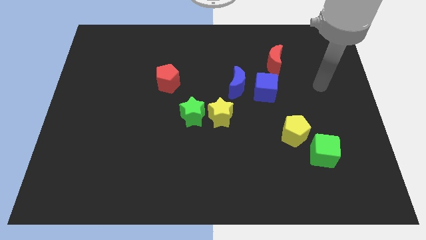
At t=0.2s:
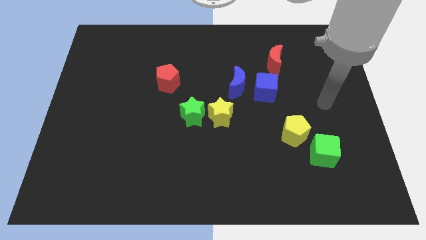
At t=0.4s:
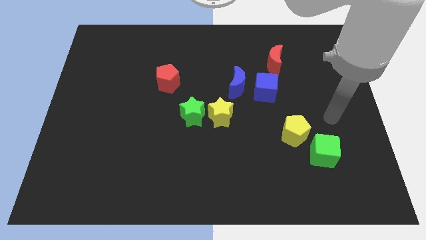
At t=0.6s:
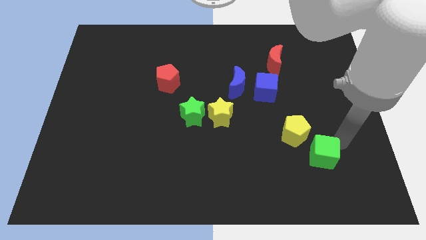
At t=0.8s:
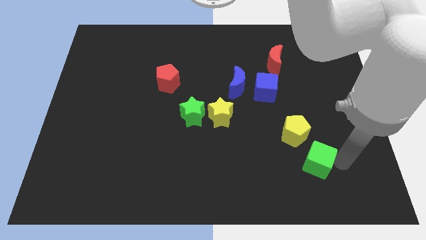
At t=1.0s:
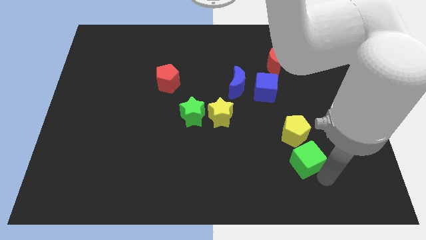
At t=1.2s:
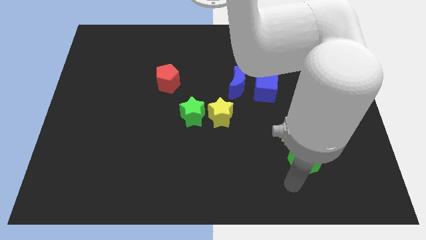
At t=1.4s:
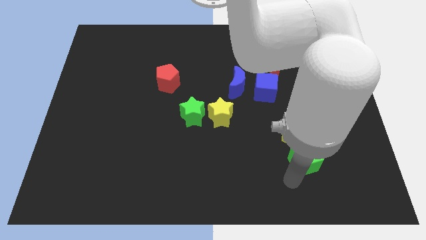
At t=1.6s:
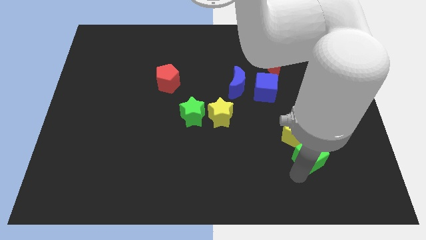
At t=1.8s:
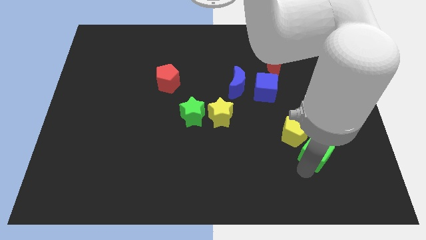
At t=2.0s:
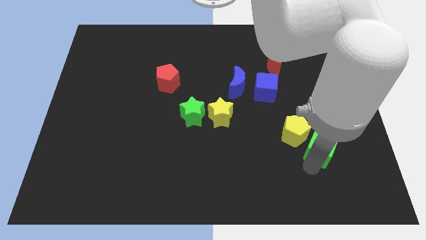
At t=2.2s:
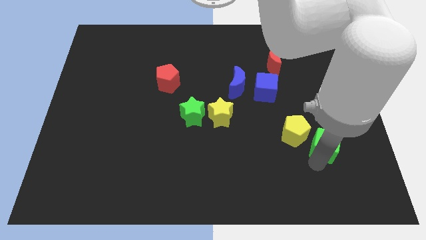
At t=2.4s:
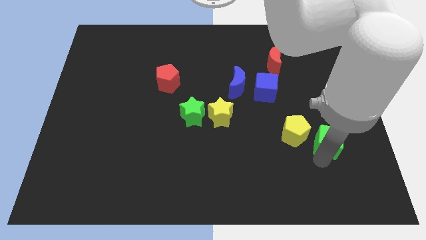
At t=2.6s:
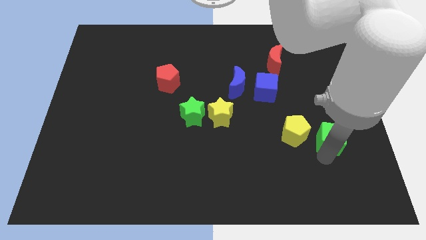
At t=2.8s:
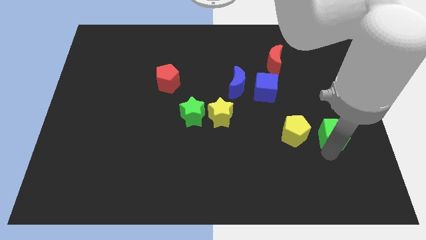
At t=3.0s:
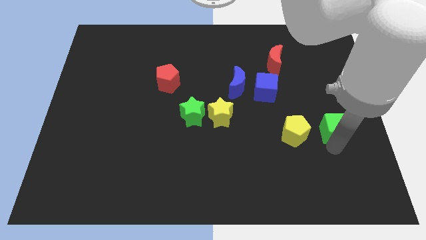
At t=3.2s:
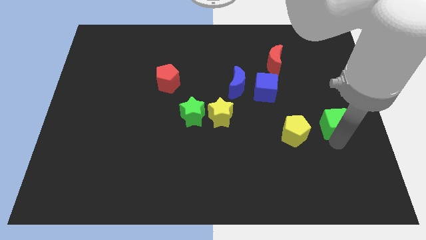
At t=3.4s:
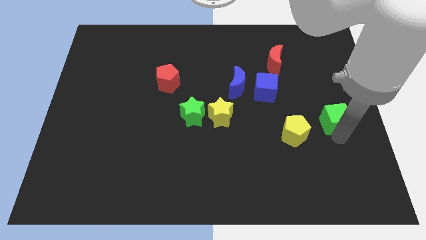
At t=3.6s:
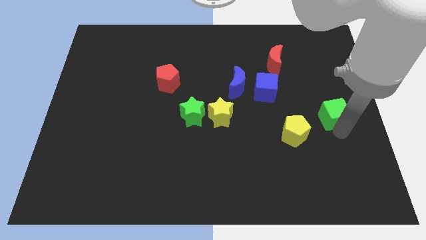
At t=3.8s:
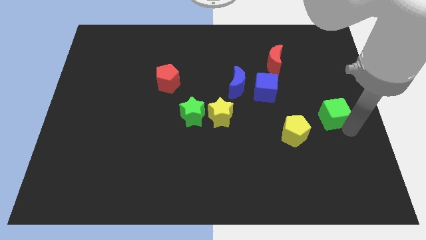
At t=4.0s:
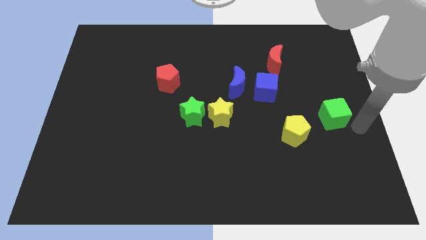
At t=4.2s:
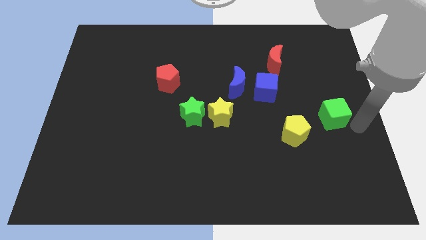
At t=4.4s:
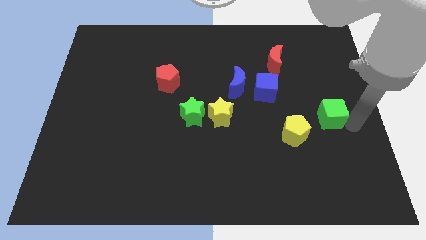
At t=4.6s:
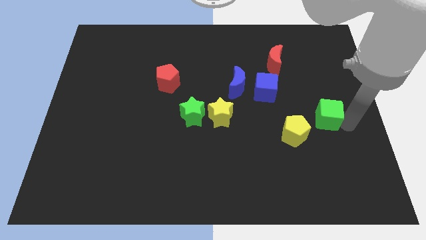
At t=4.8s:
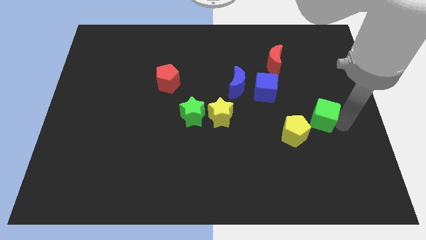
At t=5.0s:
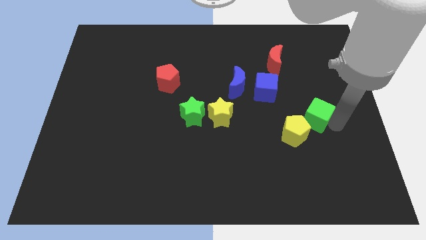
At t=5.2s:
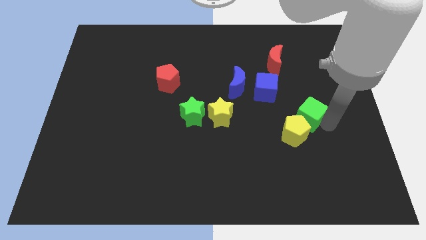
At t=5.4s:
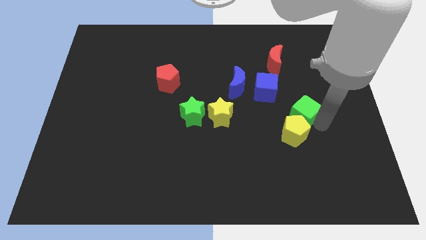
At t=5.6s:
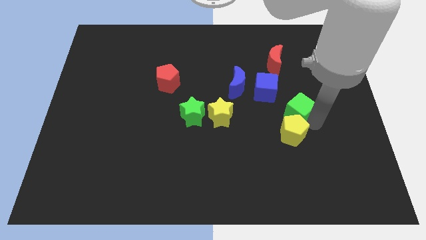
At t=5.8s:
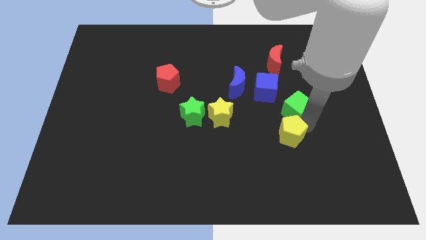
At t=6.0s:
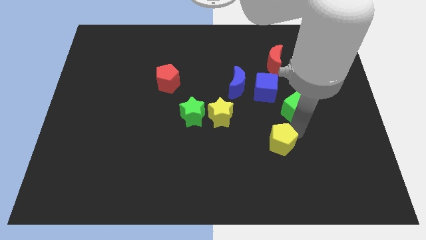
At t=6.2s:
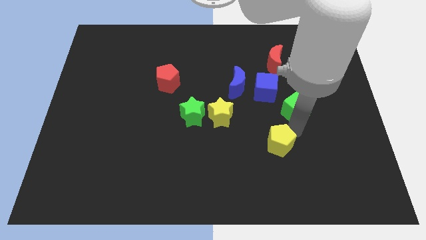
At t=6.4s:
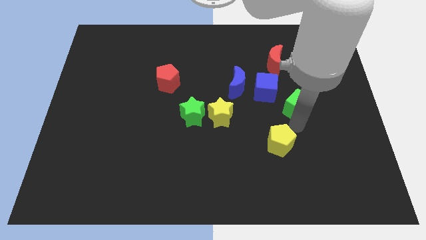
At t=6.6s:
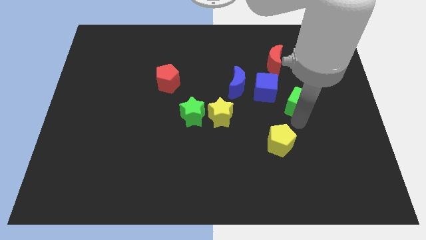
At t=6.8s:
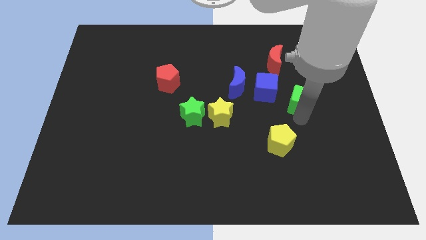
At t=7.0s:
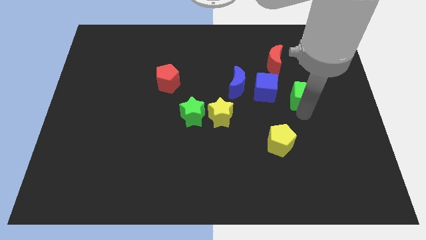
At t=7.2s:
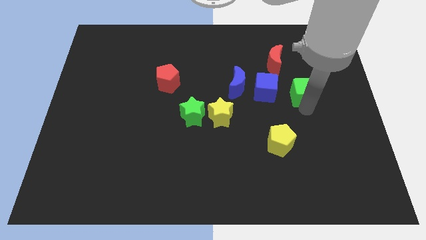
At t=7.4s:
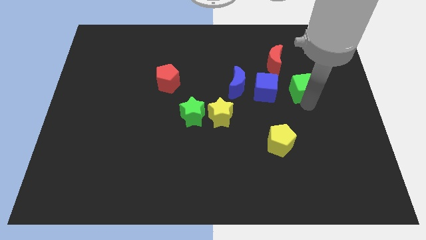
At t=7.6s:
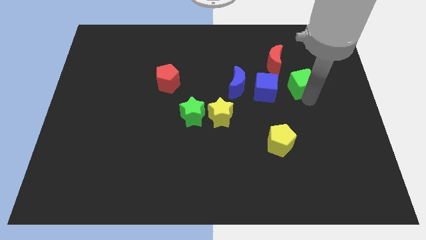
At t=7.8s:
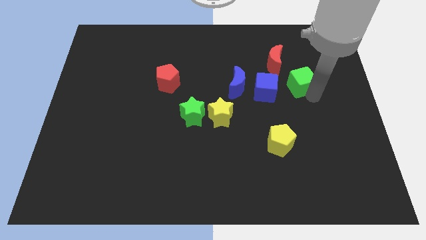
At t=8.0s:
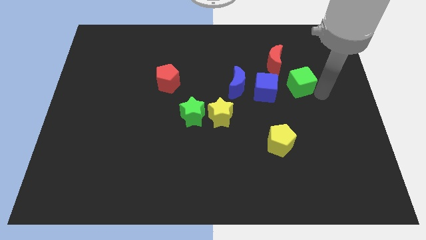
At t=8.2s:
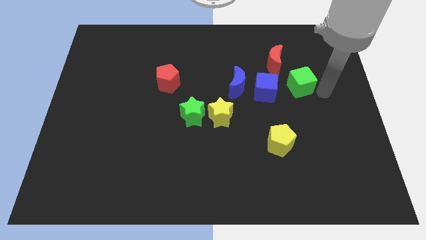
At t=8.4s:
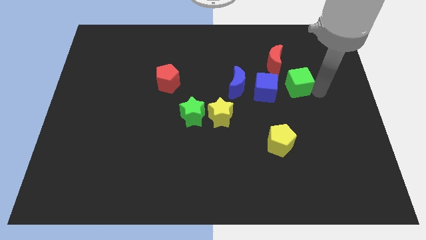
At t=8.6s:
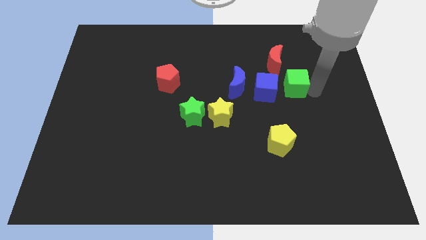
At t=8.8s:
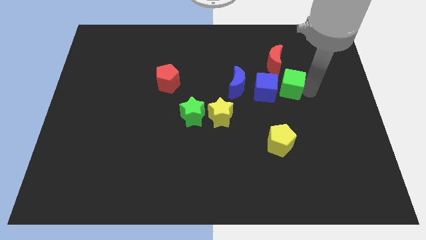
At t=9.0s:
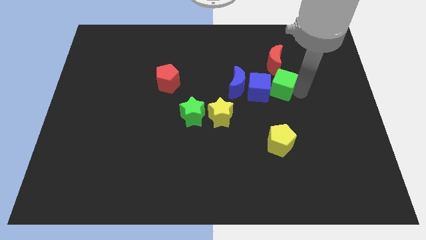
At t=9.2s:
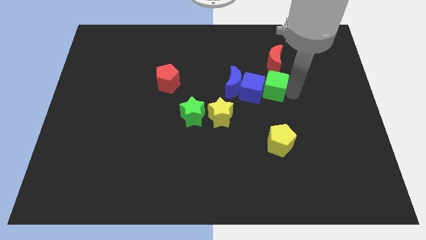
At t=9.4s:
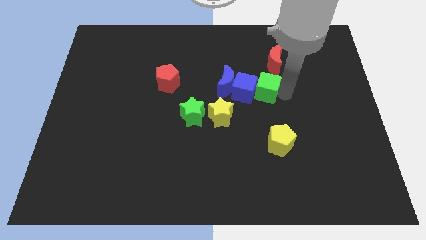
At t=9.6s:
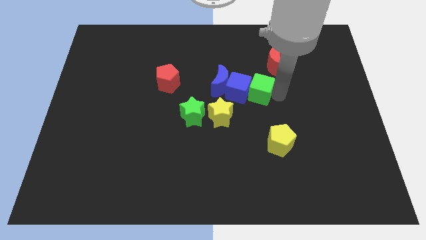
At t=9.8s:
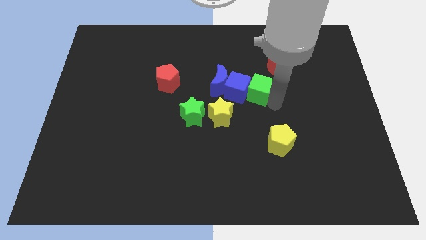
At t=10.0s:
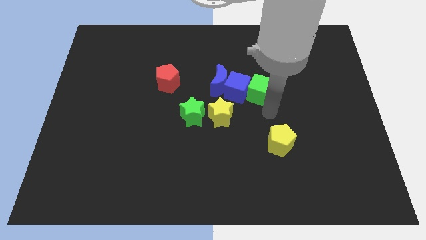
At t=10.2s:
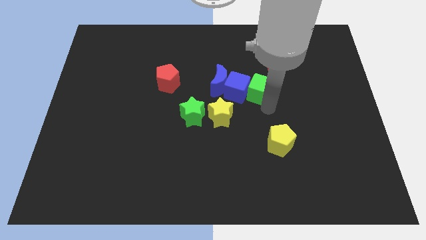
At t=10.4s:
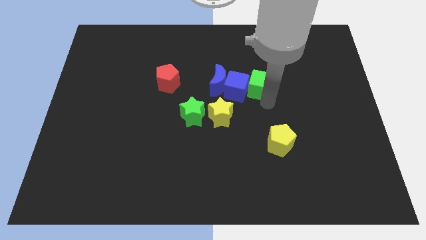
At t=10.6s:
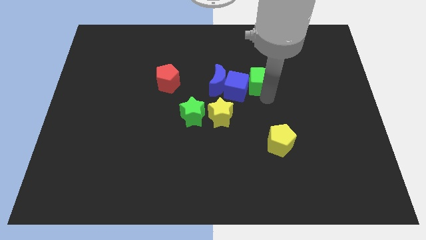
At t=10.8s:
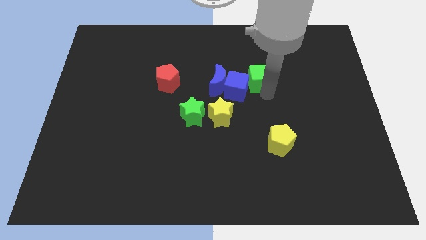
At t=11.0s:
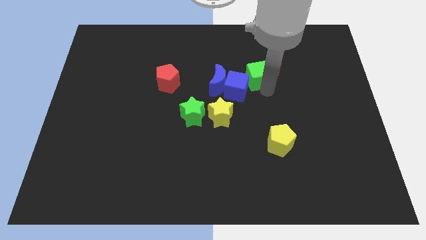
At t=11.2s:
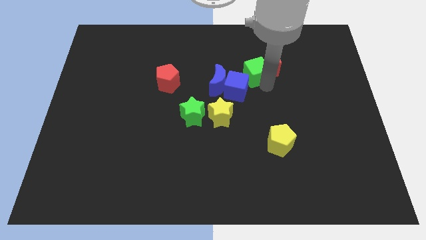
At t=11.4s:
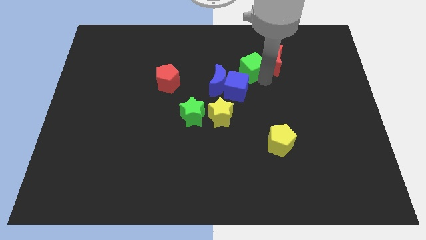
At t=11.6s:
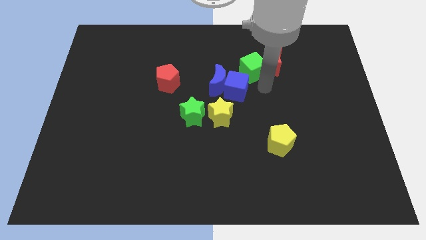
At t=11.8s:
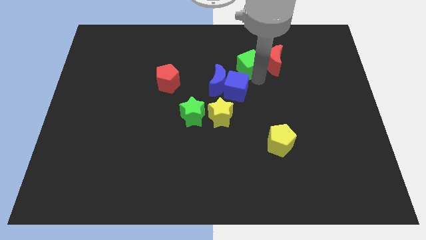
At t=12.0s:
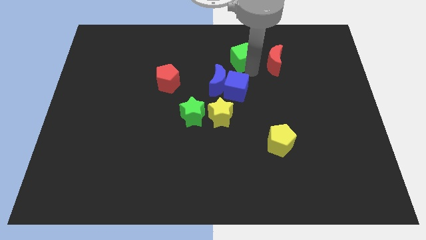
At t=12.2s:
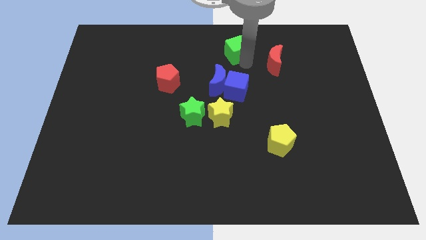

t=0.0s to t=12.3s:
slide the green cube to the towards your base
